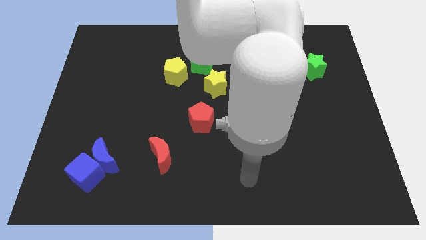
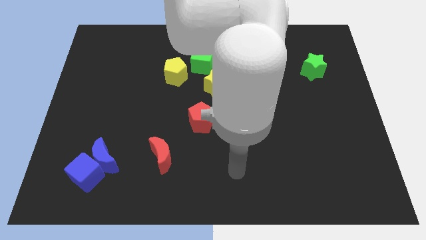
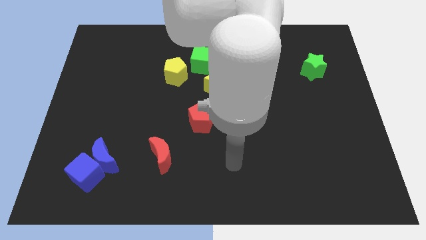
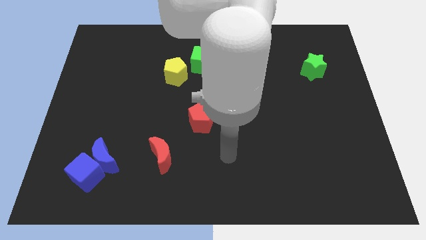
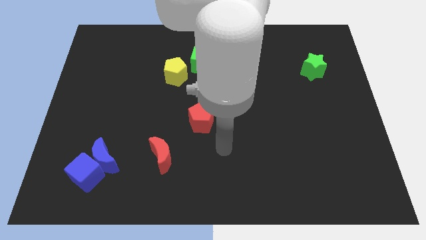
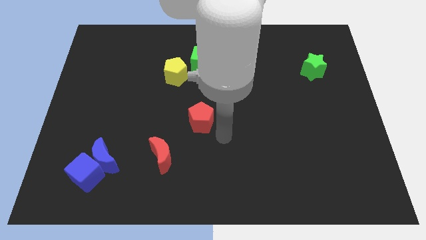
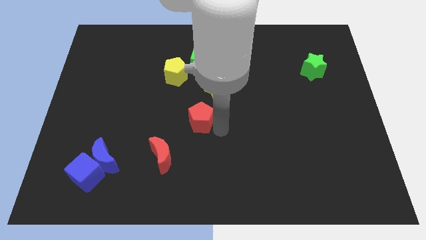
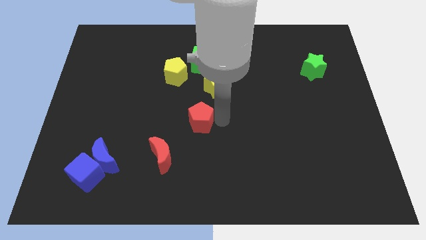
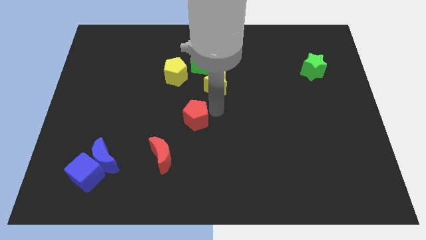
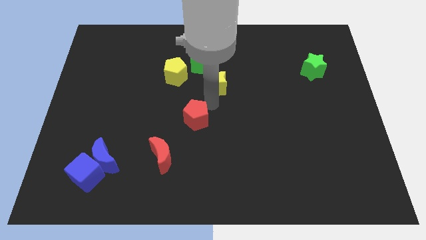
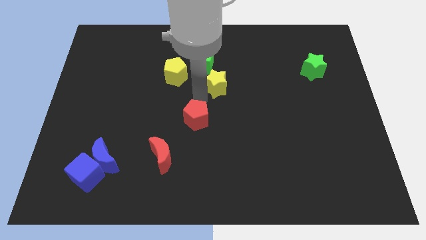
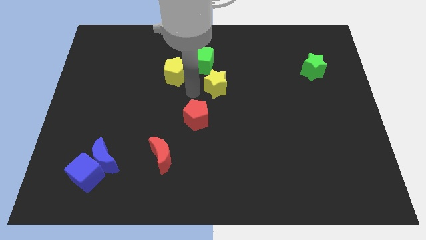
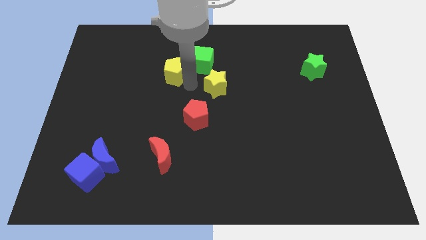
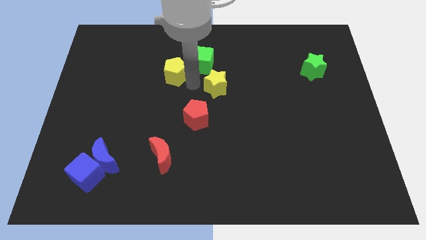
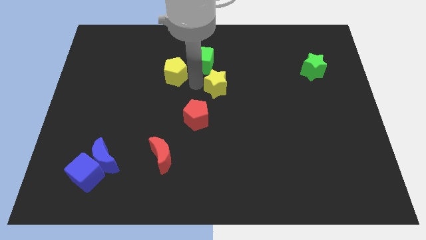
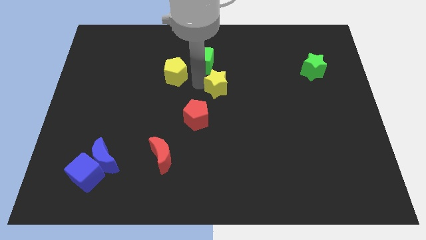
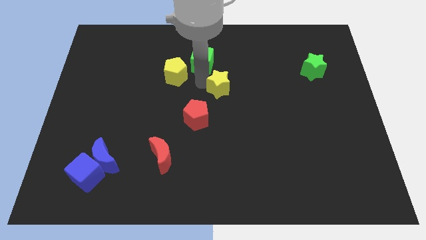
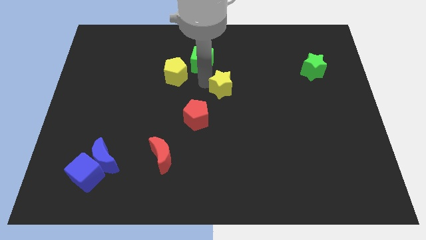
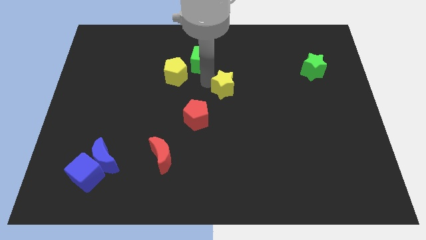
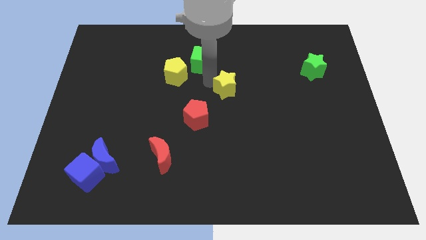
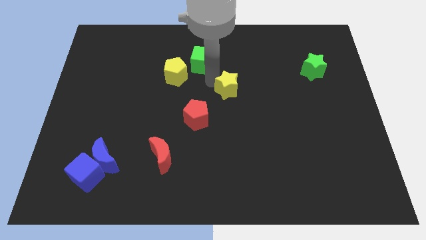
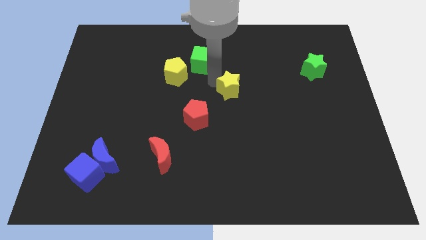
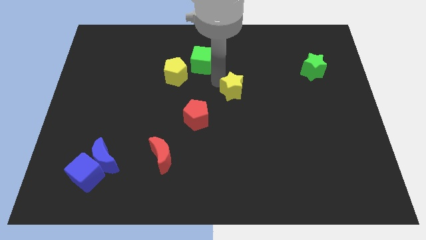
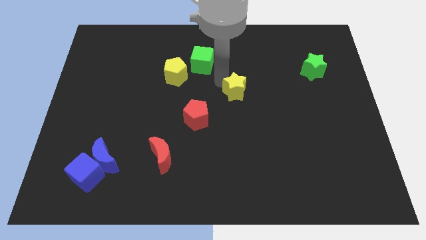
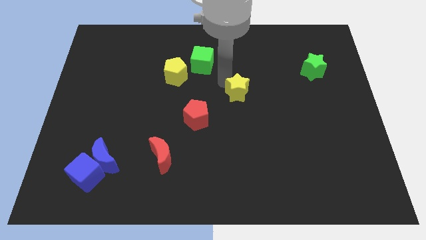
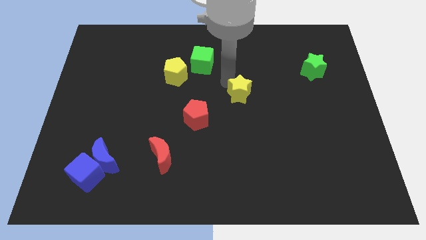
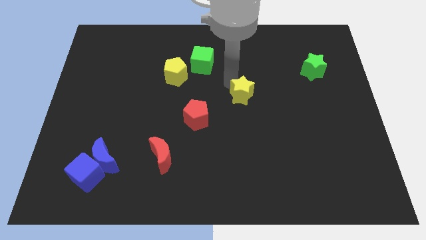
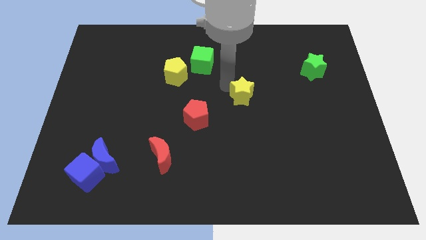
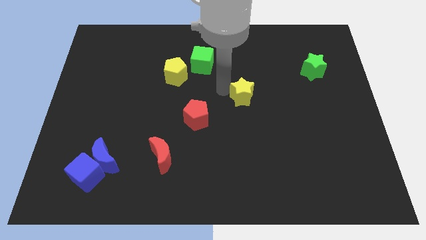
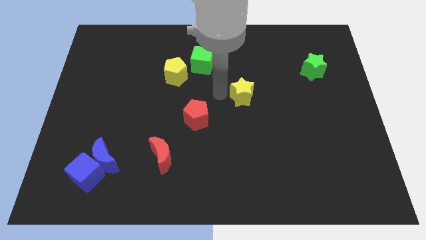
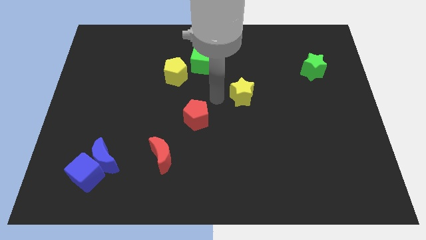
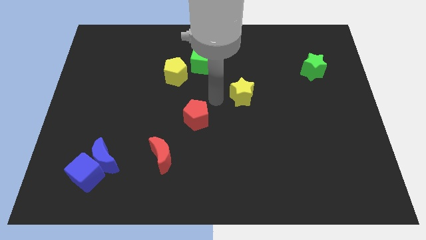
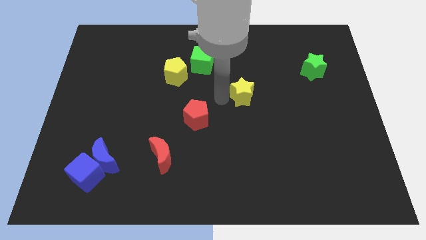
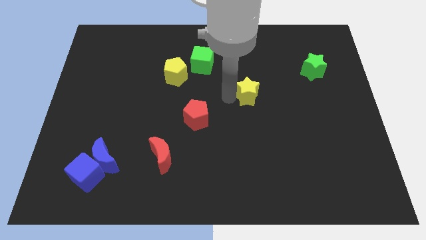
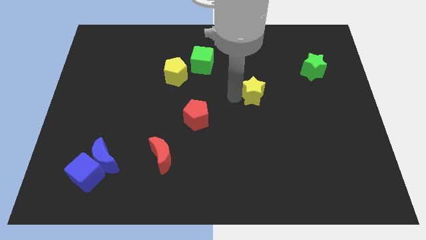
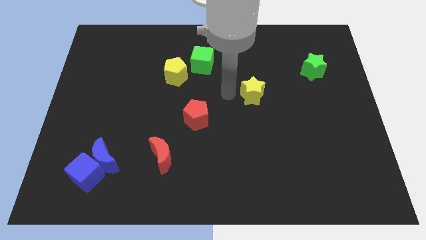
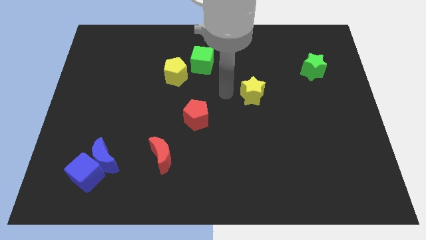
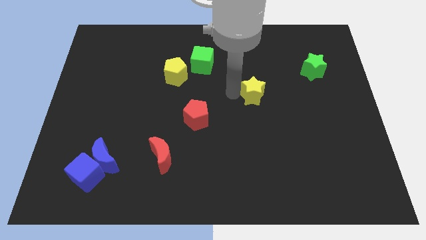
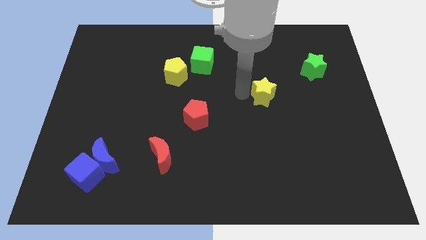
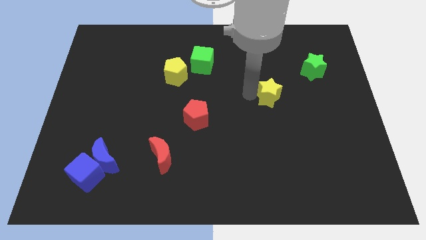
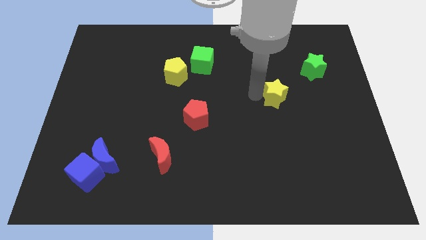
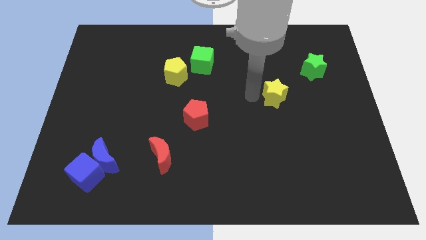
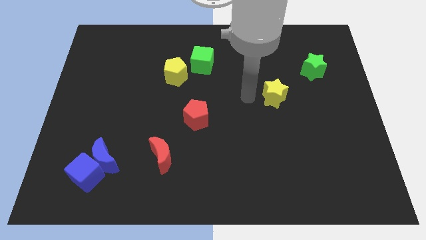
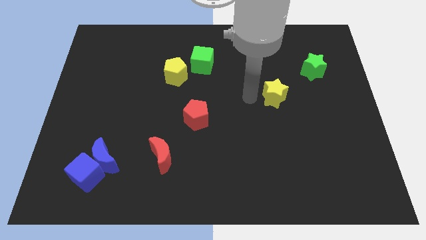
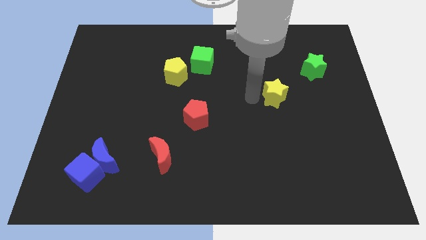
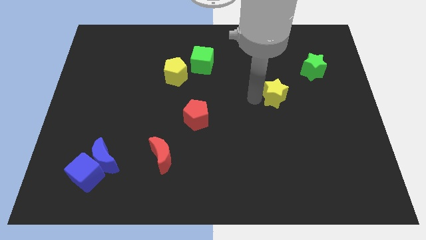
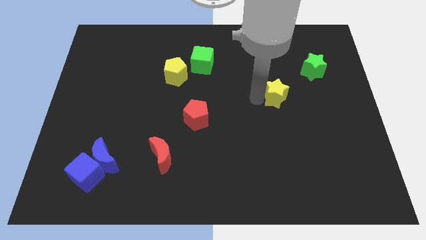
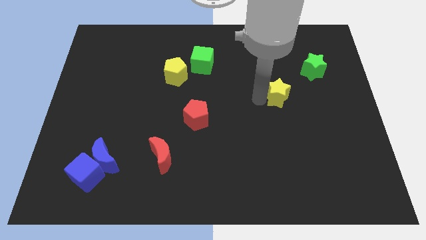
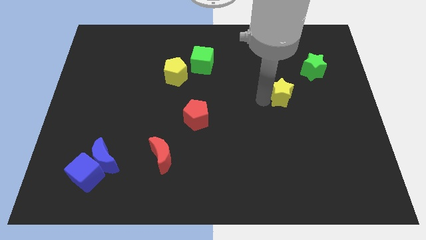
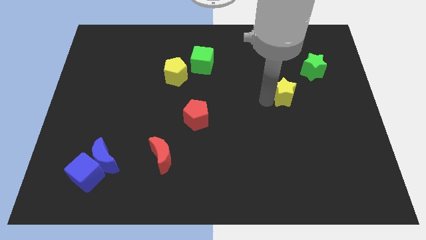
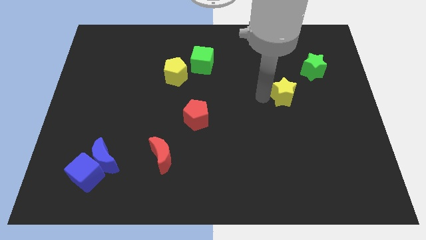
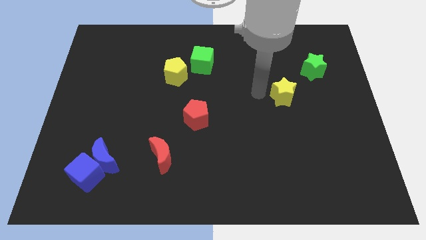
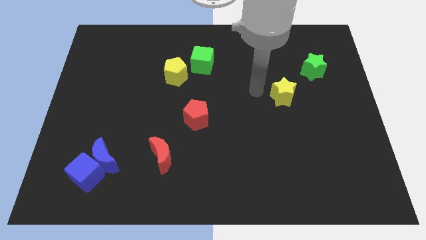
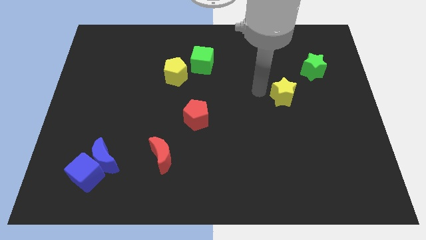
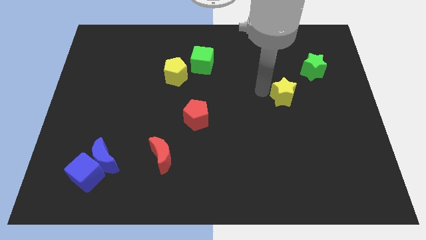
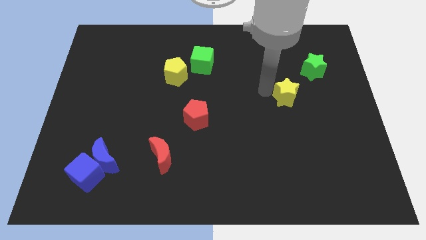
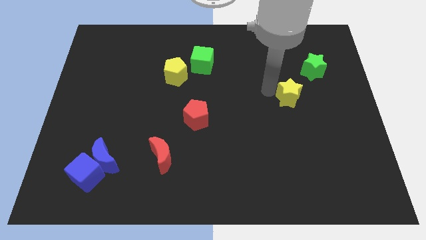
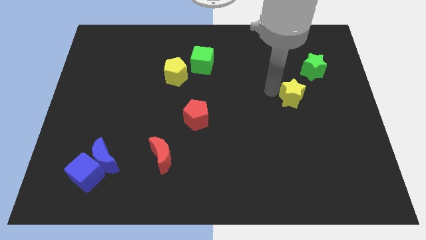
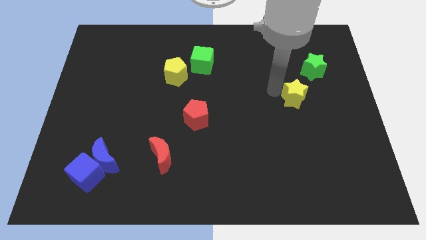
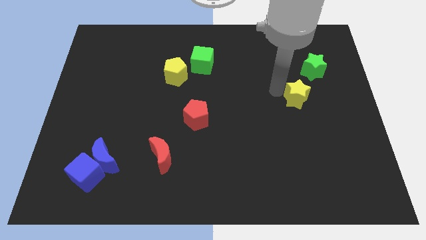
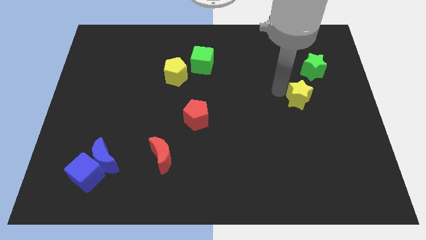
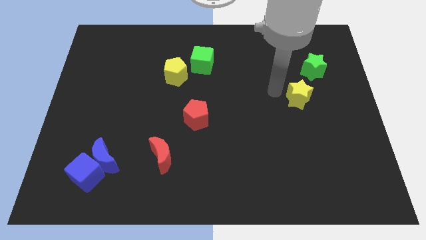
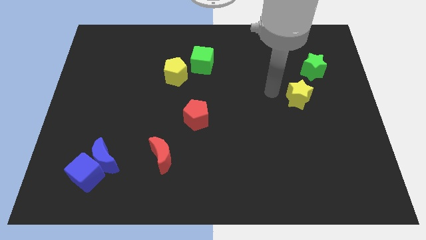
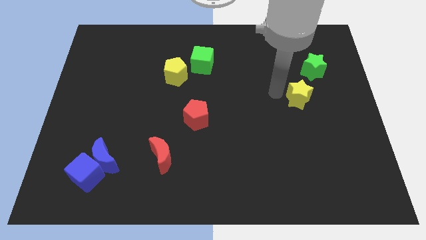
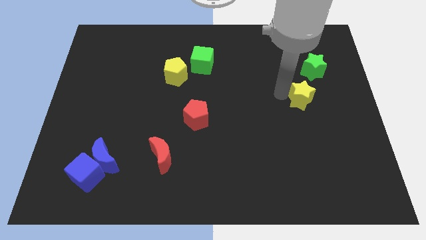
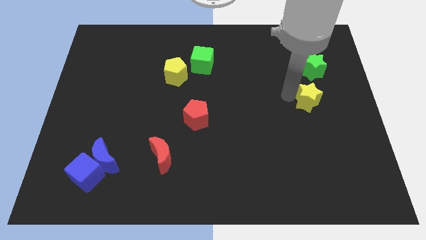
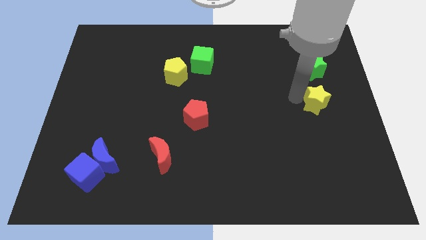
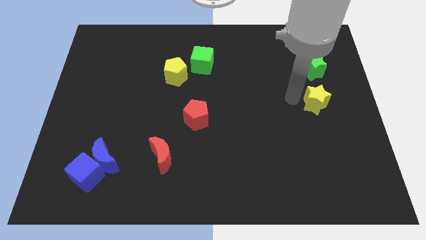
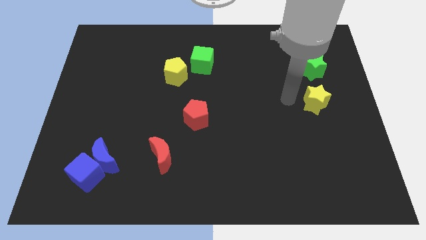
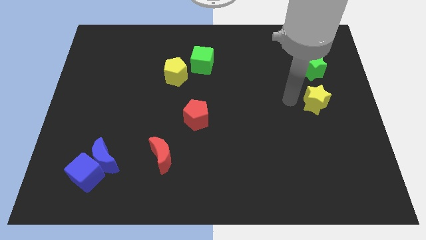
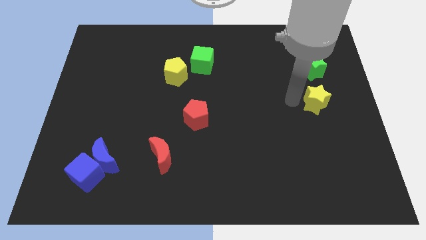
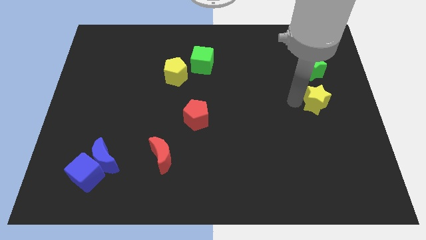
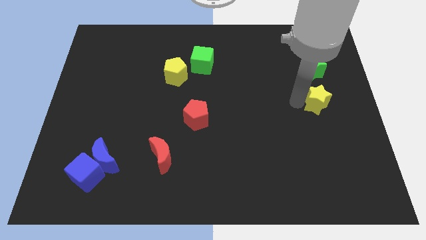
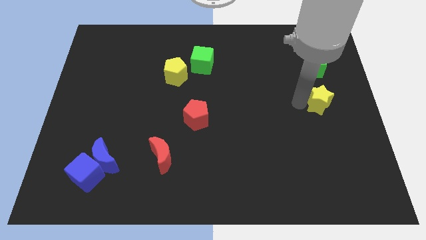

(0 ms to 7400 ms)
put the yellow star to the right side
